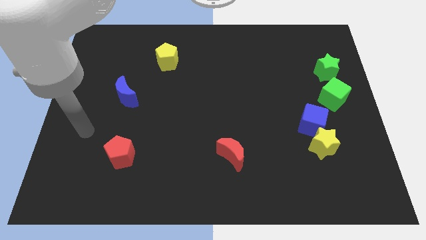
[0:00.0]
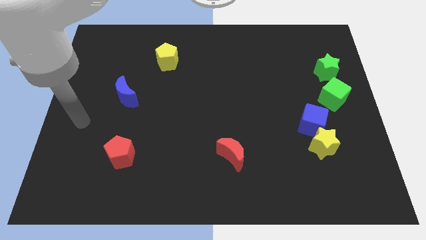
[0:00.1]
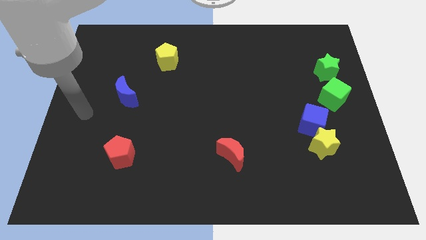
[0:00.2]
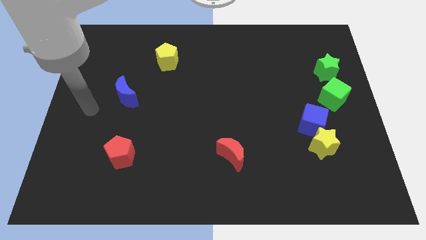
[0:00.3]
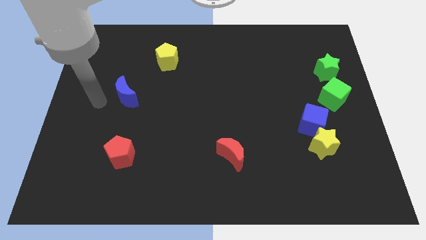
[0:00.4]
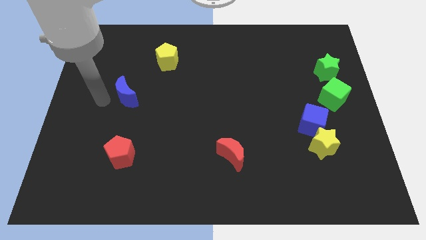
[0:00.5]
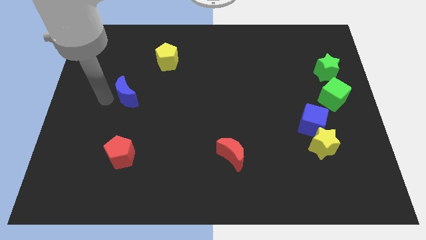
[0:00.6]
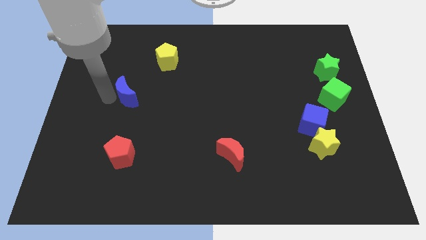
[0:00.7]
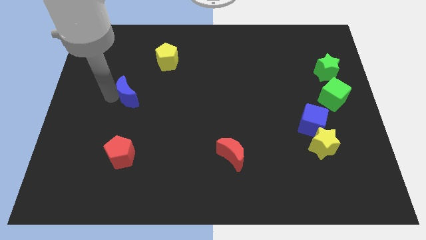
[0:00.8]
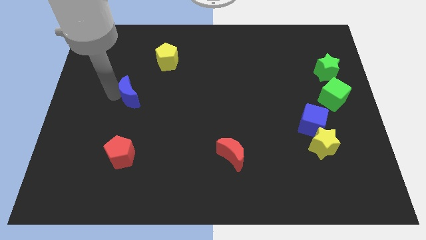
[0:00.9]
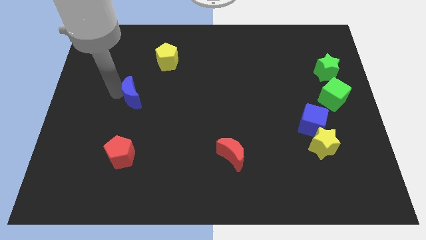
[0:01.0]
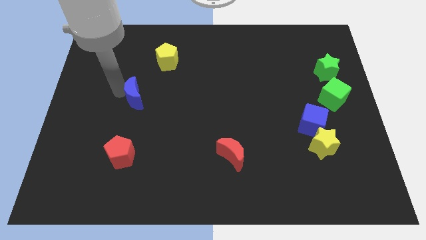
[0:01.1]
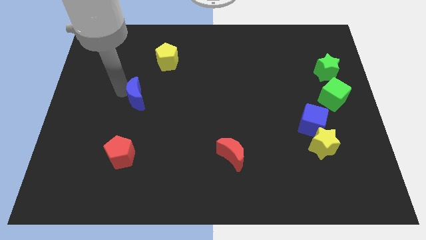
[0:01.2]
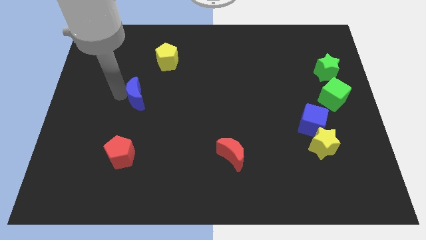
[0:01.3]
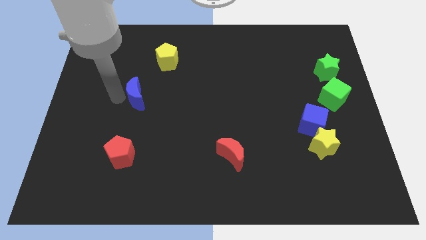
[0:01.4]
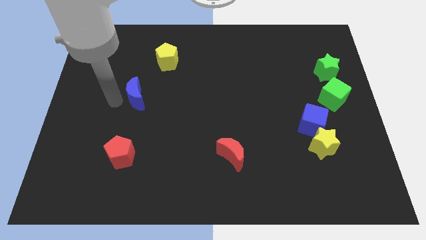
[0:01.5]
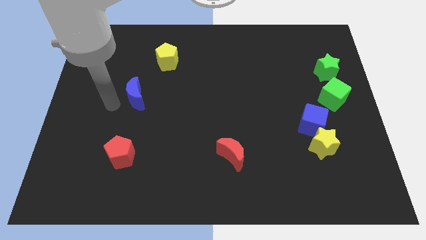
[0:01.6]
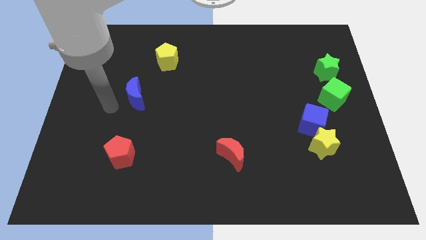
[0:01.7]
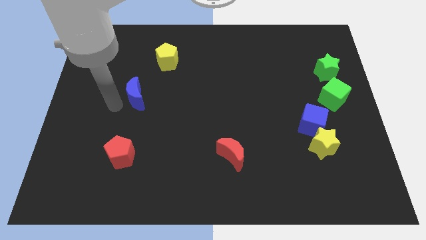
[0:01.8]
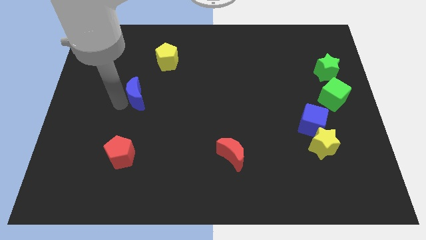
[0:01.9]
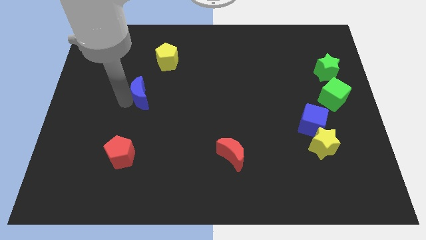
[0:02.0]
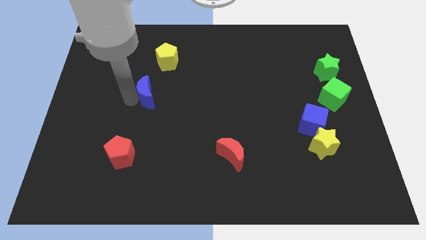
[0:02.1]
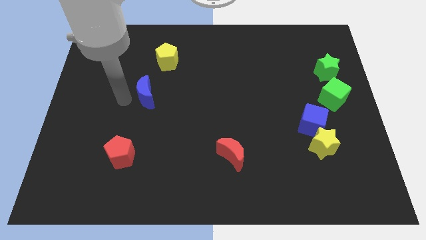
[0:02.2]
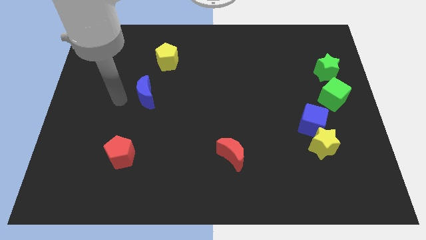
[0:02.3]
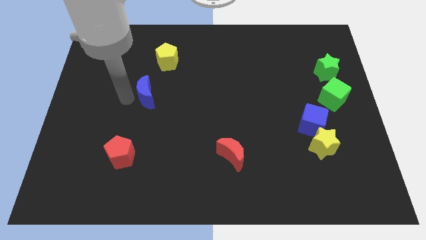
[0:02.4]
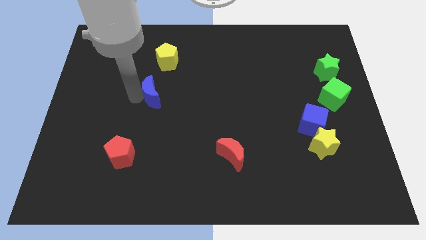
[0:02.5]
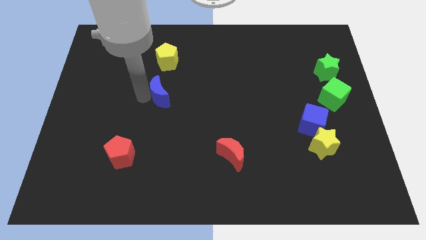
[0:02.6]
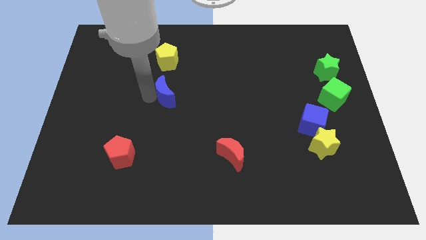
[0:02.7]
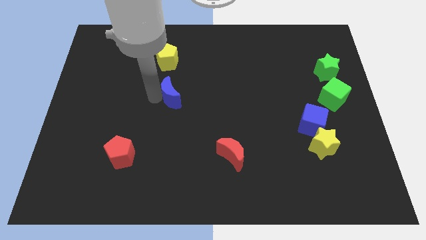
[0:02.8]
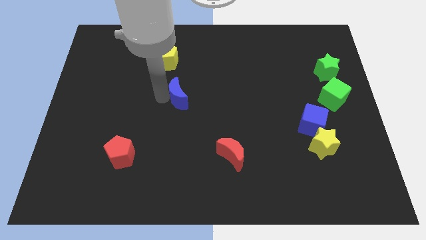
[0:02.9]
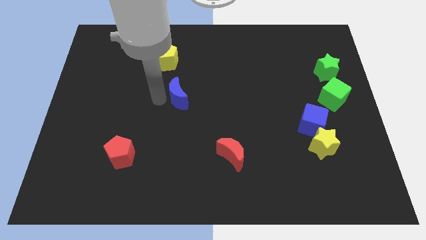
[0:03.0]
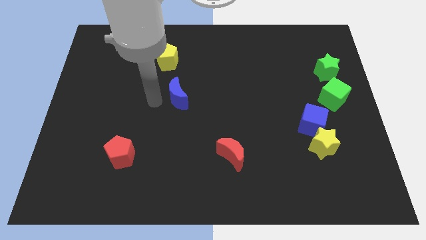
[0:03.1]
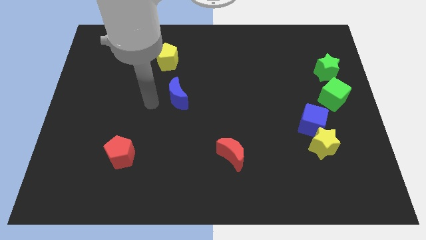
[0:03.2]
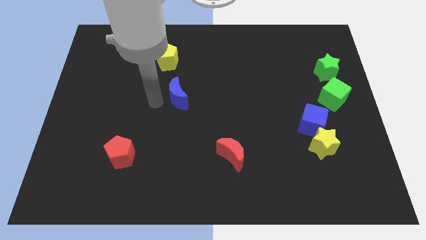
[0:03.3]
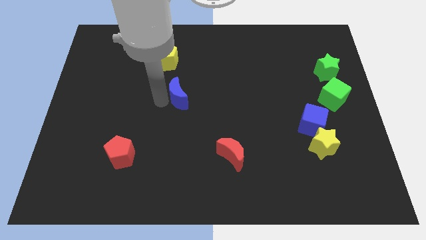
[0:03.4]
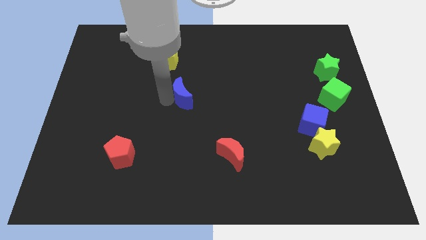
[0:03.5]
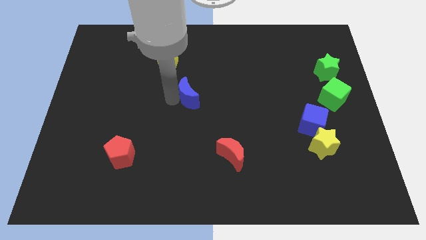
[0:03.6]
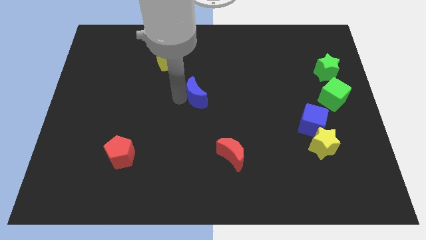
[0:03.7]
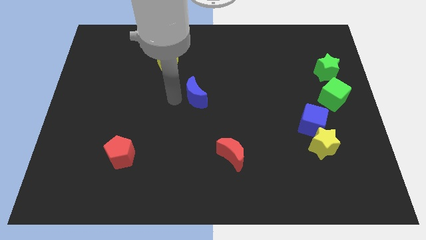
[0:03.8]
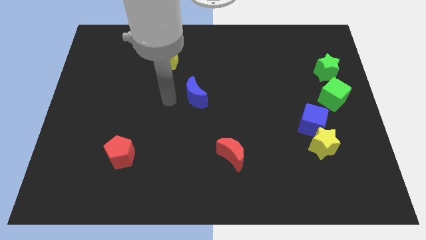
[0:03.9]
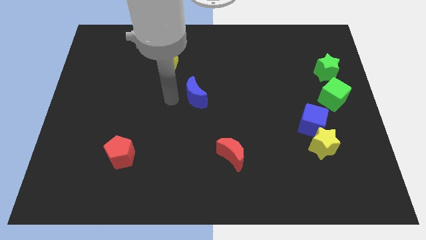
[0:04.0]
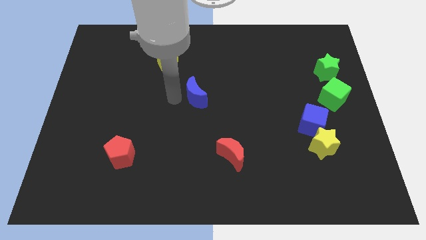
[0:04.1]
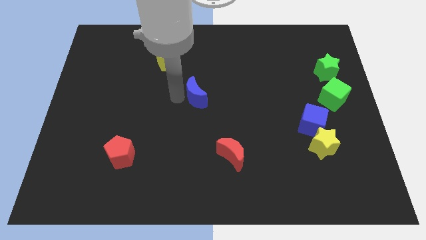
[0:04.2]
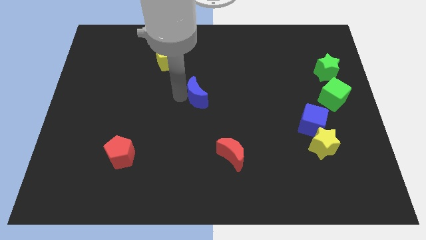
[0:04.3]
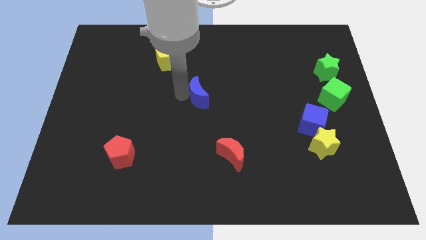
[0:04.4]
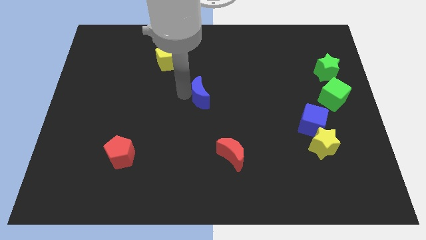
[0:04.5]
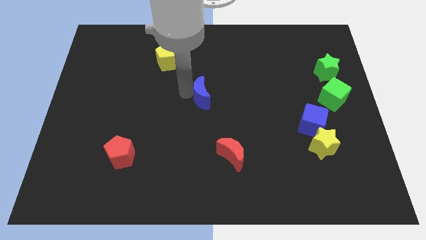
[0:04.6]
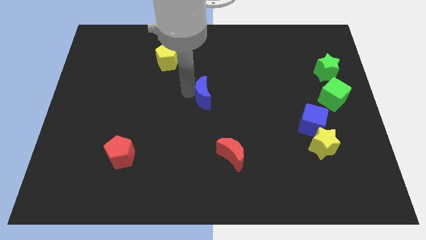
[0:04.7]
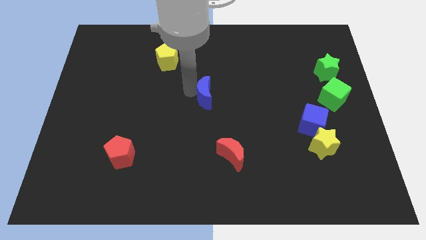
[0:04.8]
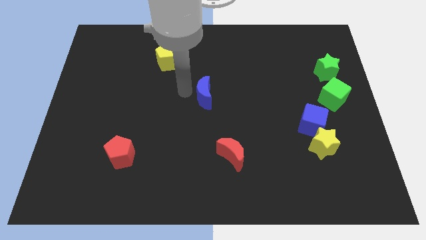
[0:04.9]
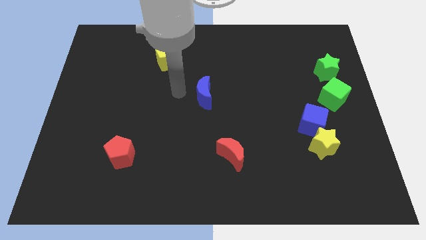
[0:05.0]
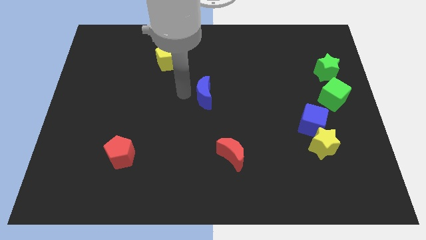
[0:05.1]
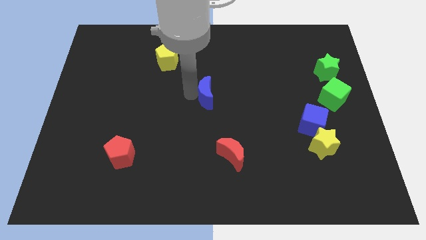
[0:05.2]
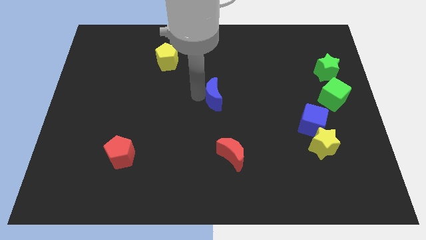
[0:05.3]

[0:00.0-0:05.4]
slide the blue moon to the right

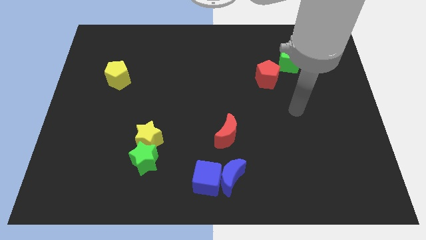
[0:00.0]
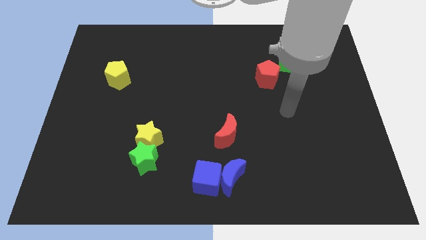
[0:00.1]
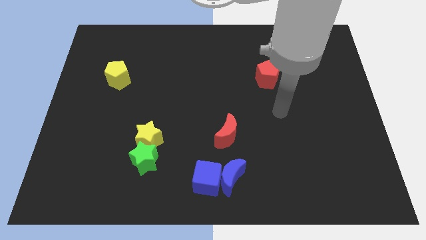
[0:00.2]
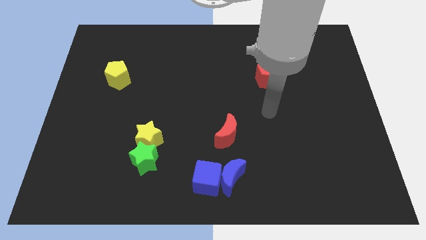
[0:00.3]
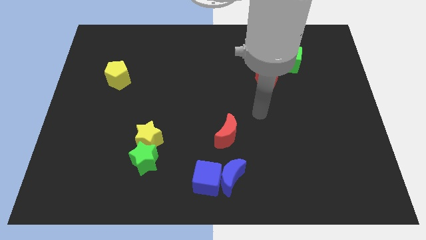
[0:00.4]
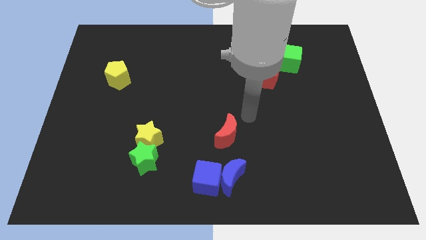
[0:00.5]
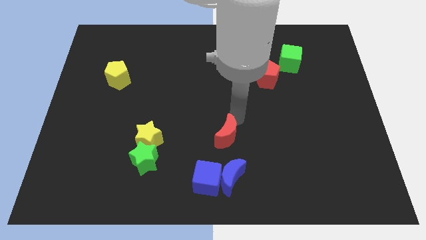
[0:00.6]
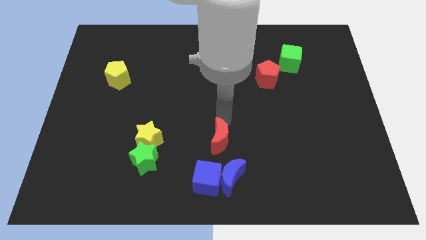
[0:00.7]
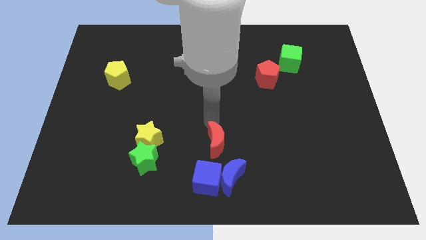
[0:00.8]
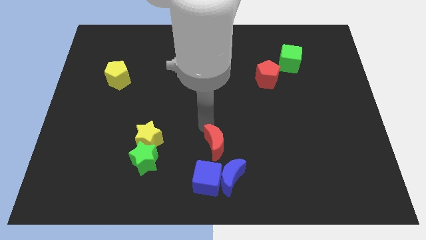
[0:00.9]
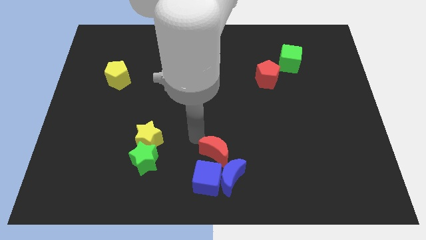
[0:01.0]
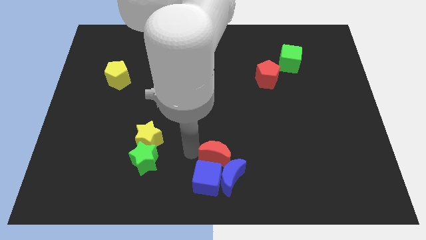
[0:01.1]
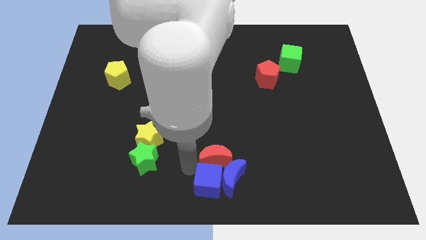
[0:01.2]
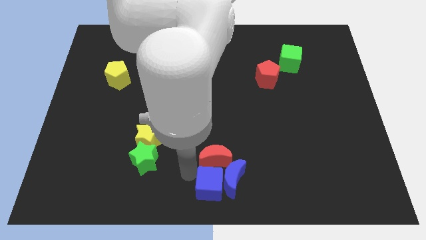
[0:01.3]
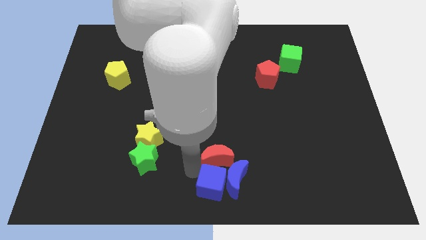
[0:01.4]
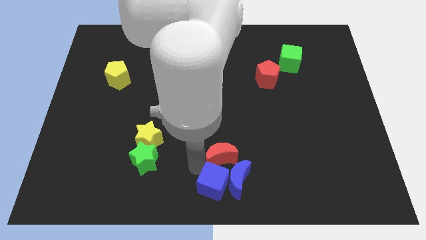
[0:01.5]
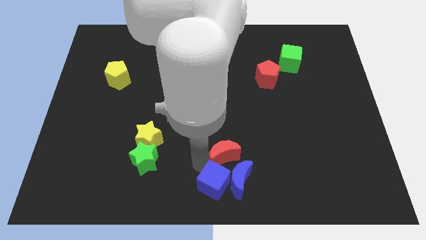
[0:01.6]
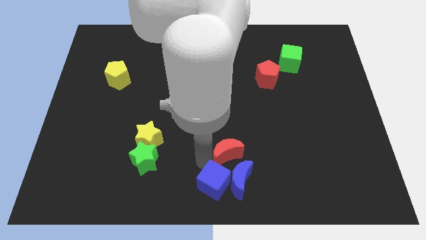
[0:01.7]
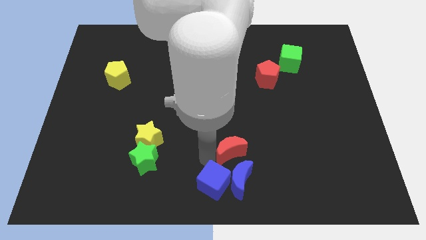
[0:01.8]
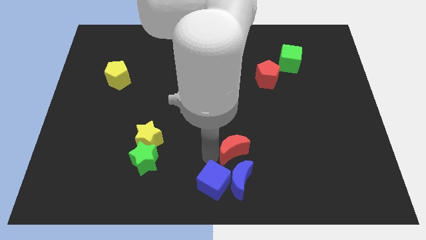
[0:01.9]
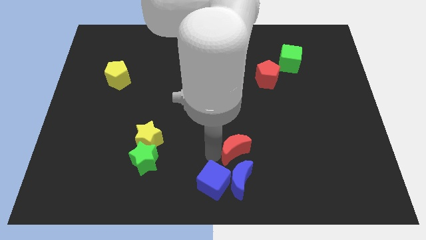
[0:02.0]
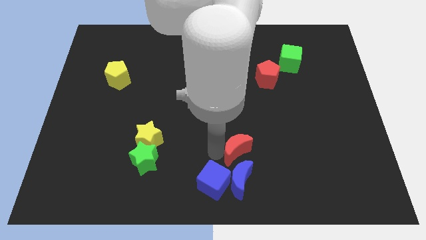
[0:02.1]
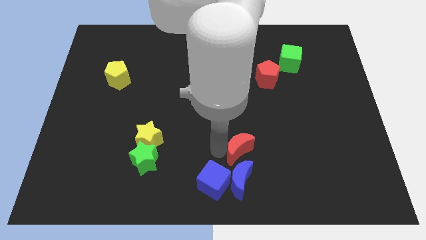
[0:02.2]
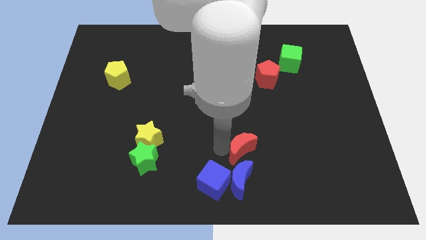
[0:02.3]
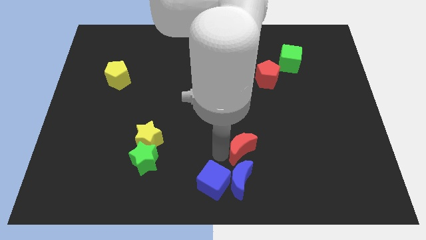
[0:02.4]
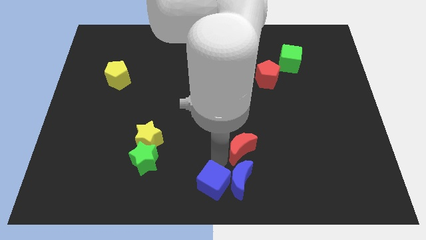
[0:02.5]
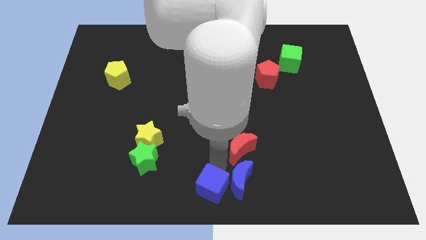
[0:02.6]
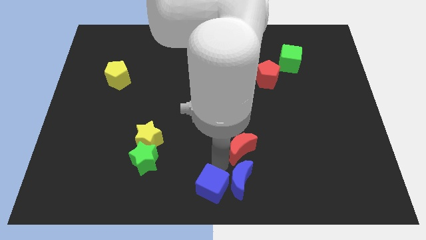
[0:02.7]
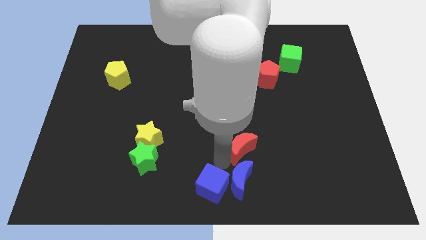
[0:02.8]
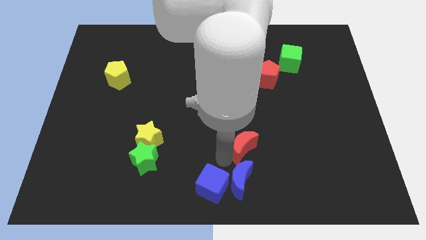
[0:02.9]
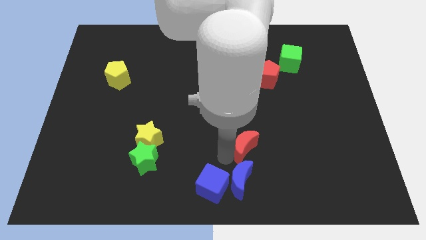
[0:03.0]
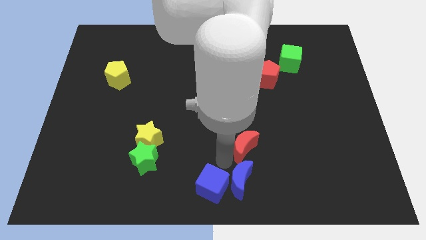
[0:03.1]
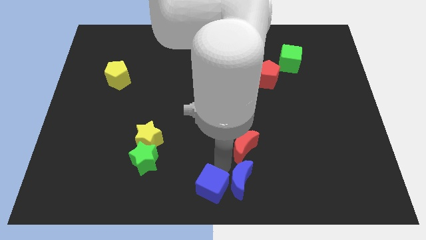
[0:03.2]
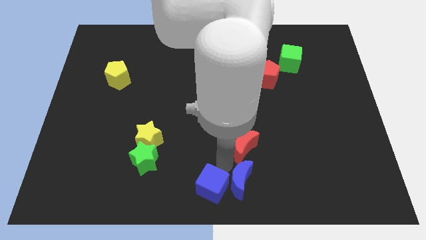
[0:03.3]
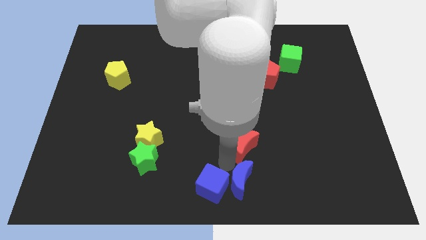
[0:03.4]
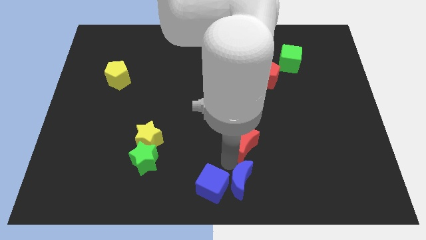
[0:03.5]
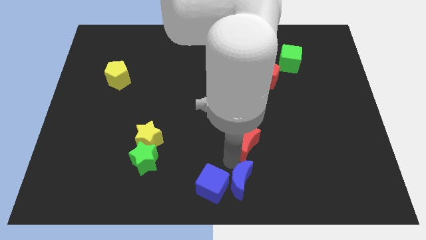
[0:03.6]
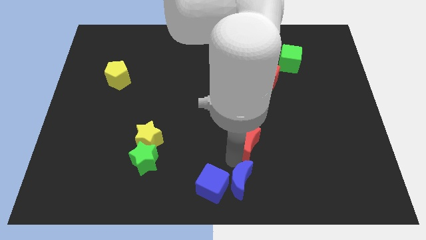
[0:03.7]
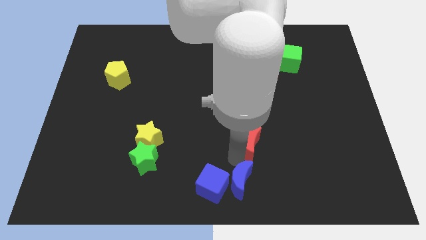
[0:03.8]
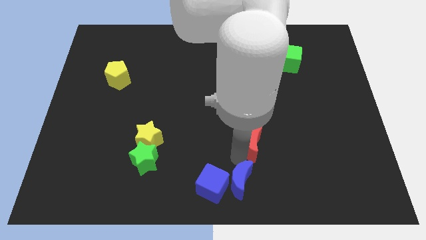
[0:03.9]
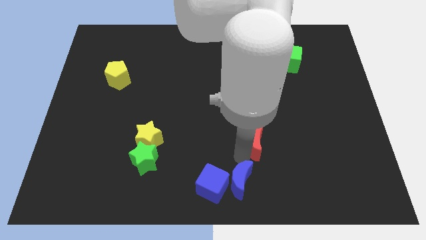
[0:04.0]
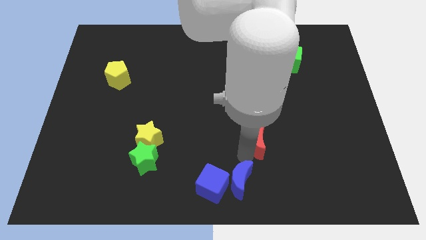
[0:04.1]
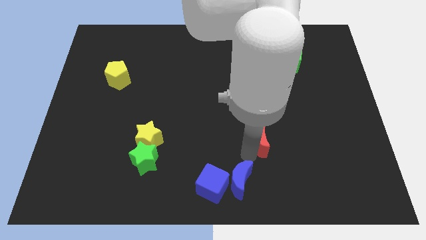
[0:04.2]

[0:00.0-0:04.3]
slide the red moon slightly to the right
